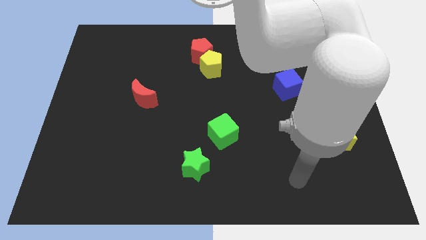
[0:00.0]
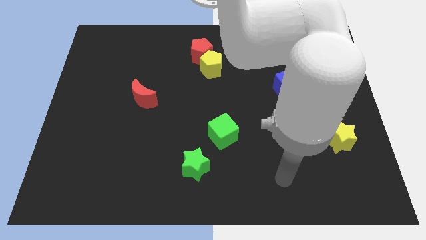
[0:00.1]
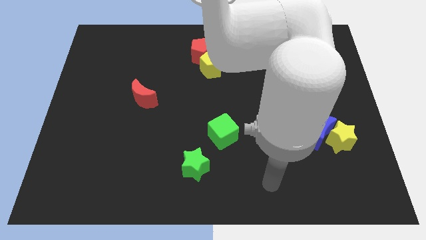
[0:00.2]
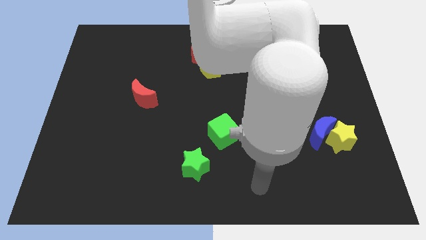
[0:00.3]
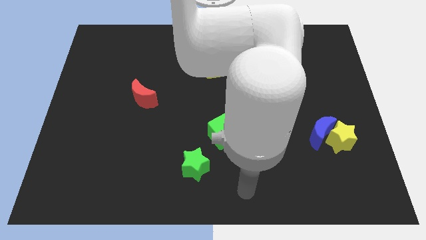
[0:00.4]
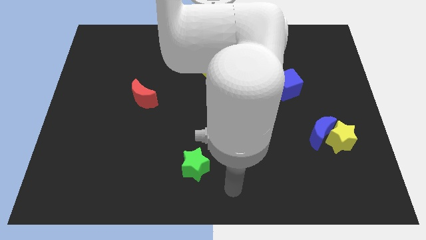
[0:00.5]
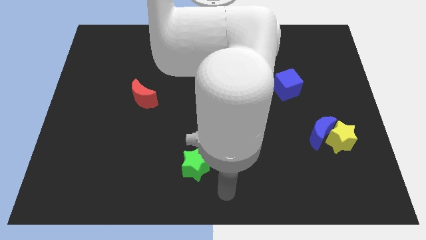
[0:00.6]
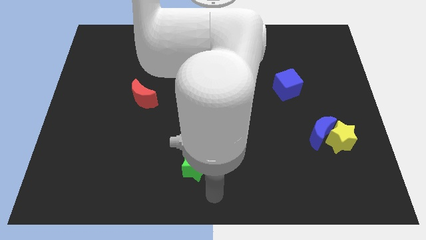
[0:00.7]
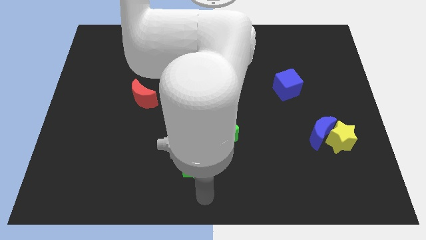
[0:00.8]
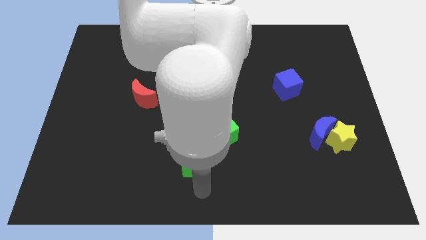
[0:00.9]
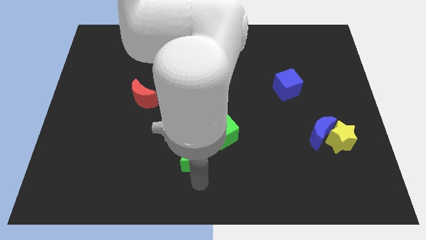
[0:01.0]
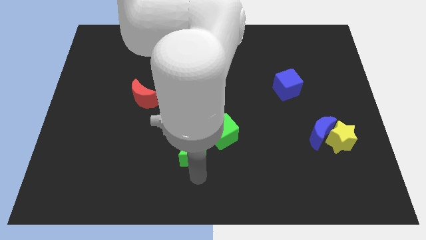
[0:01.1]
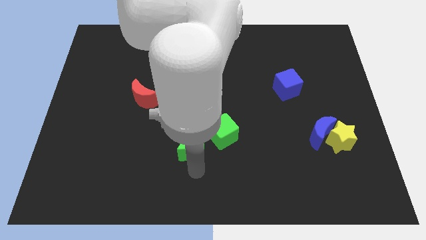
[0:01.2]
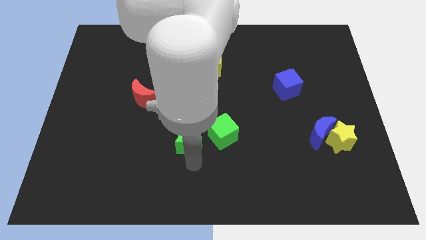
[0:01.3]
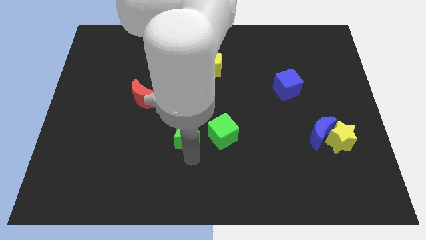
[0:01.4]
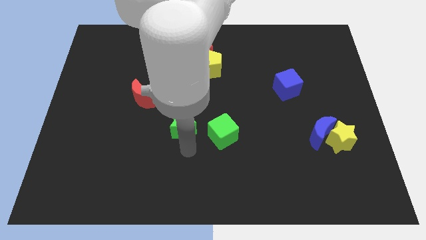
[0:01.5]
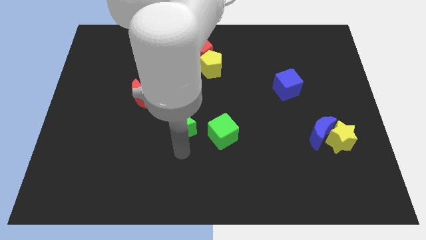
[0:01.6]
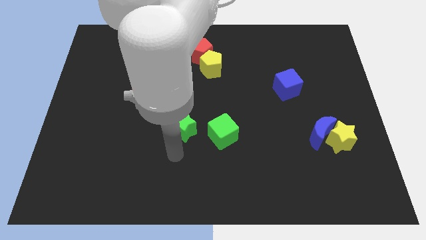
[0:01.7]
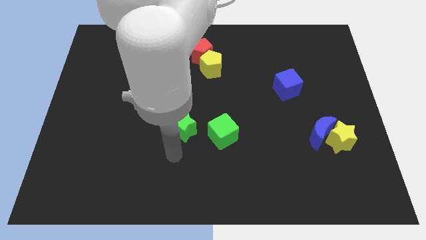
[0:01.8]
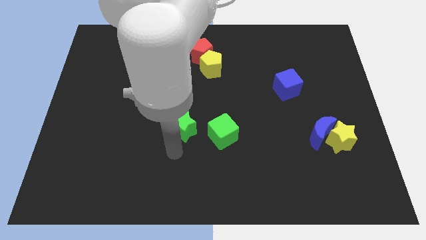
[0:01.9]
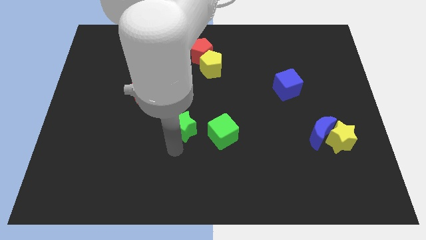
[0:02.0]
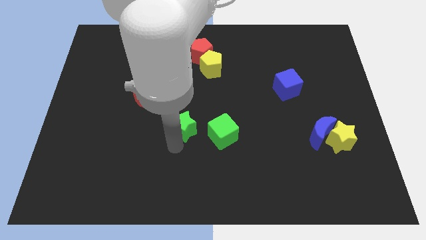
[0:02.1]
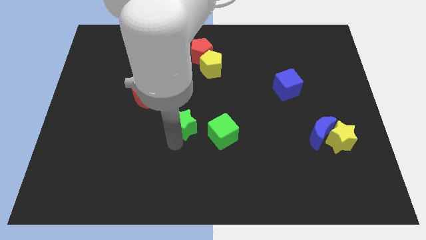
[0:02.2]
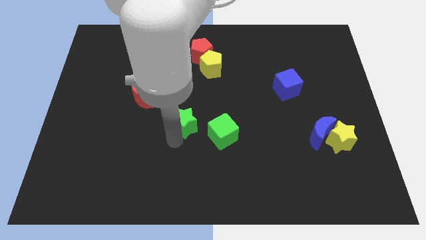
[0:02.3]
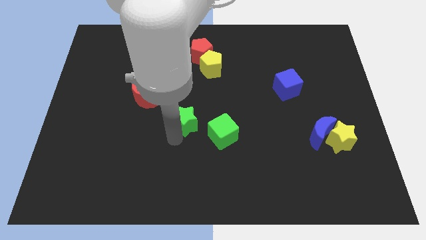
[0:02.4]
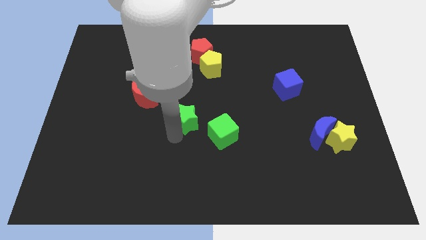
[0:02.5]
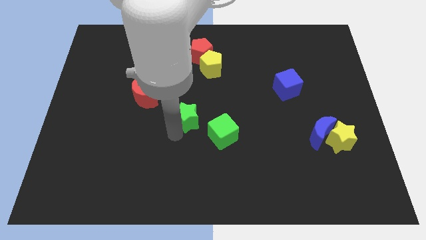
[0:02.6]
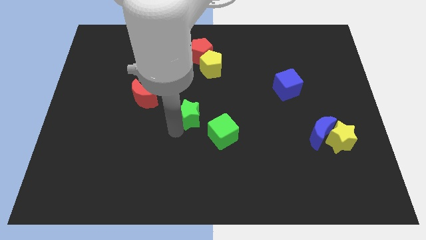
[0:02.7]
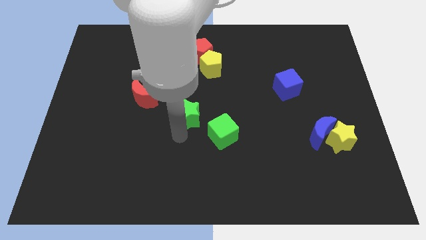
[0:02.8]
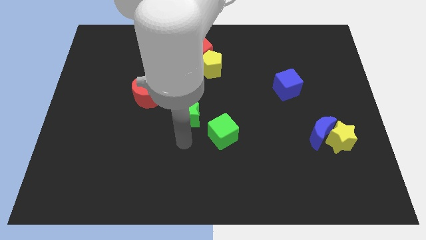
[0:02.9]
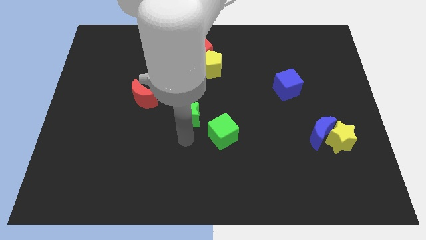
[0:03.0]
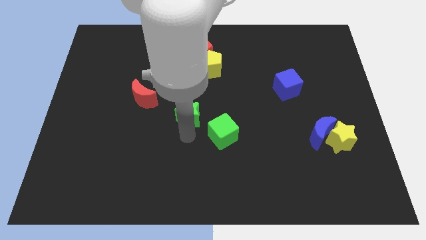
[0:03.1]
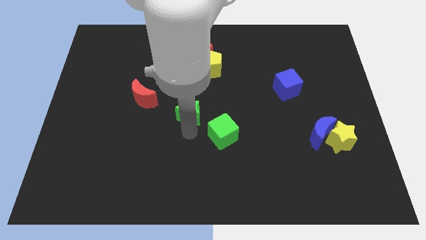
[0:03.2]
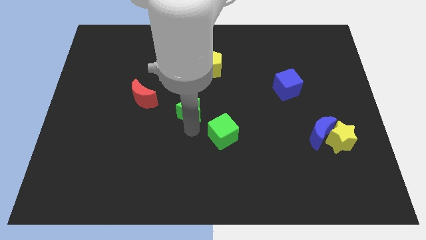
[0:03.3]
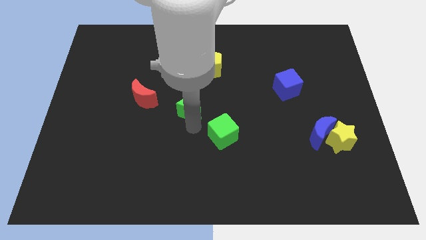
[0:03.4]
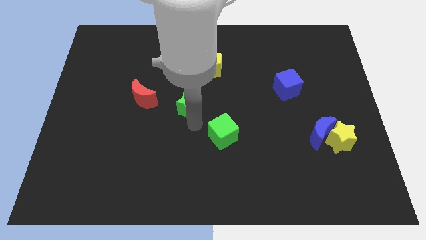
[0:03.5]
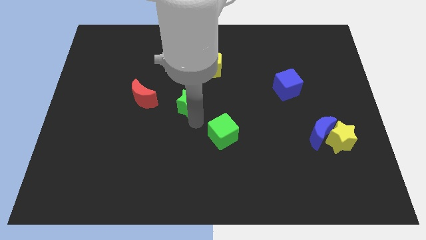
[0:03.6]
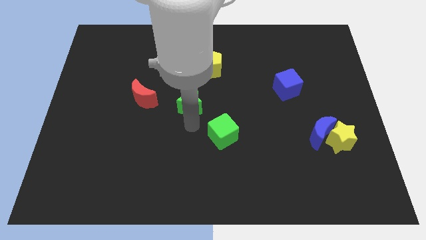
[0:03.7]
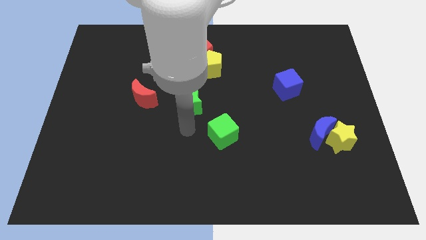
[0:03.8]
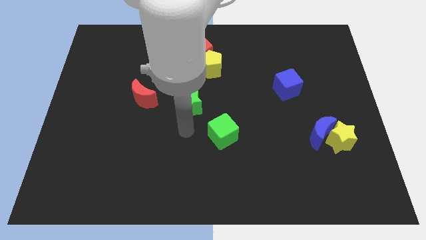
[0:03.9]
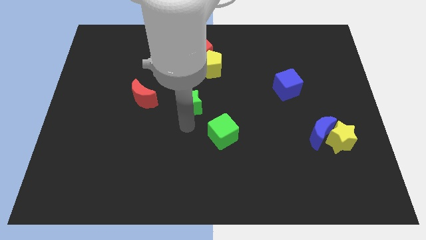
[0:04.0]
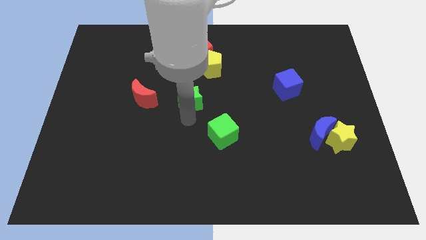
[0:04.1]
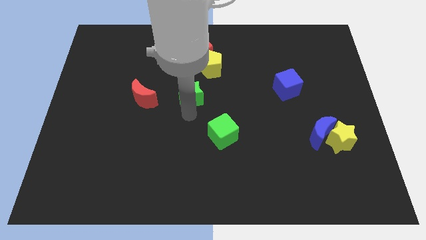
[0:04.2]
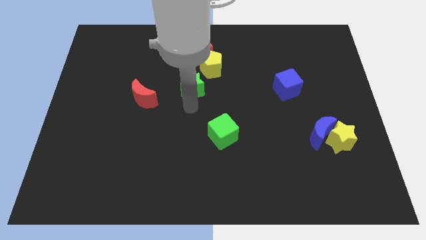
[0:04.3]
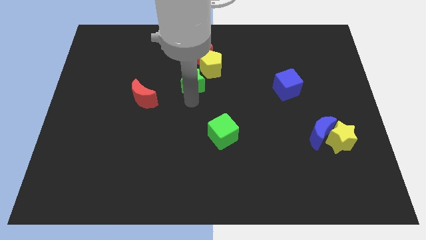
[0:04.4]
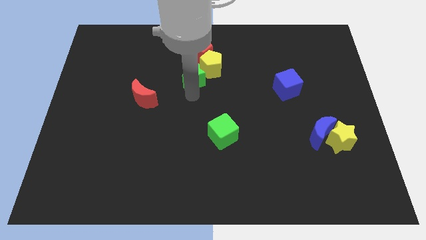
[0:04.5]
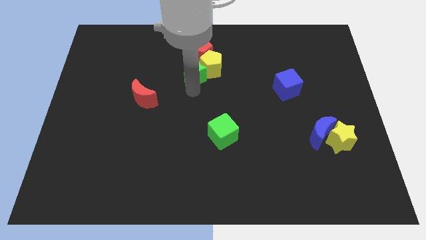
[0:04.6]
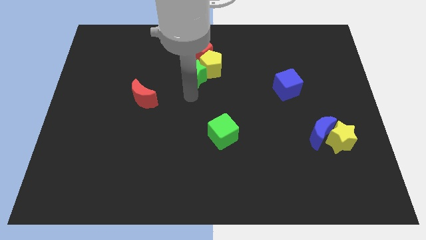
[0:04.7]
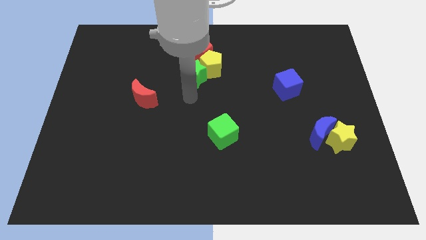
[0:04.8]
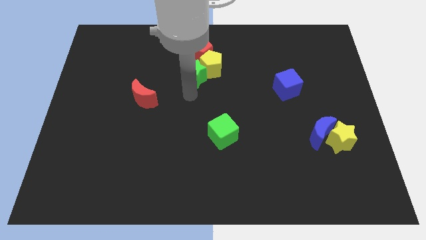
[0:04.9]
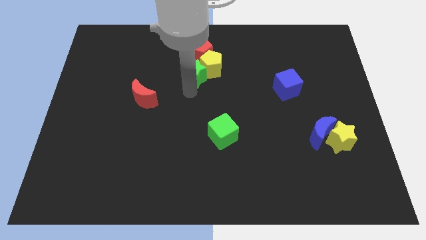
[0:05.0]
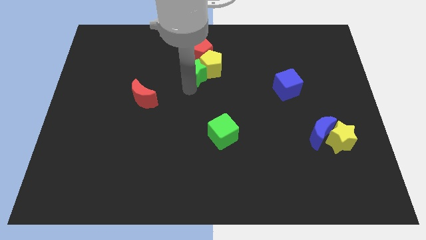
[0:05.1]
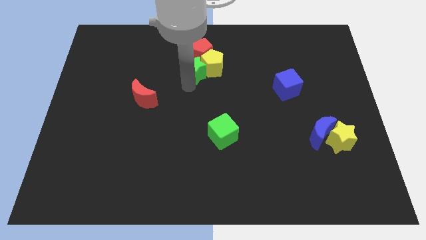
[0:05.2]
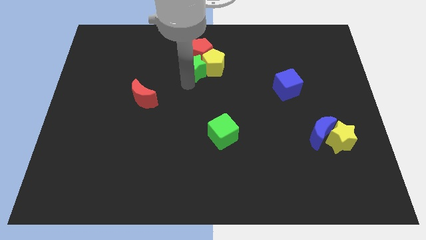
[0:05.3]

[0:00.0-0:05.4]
push the green star next to the red pentagon

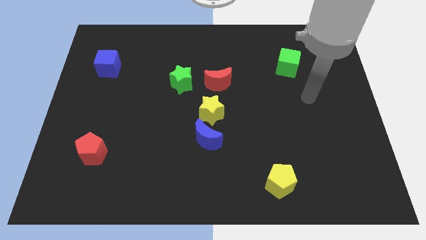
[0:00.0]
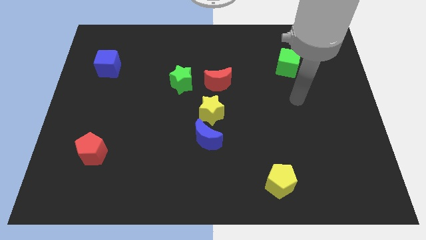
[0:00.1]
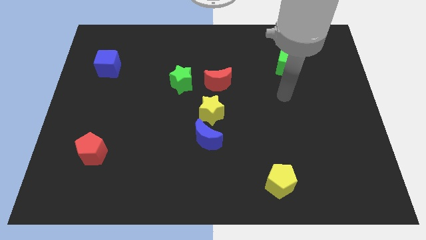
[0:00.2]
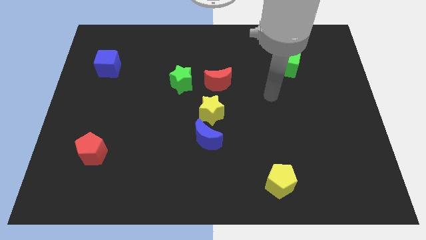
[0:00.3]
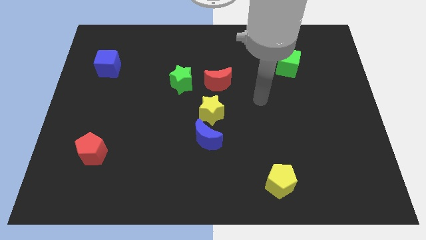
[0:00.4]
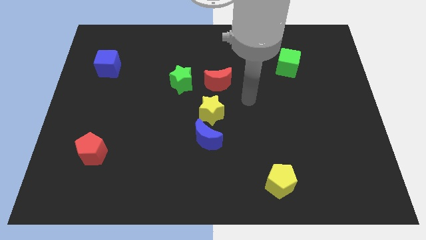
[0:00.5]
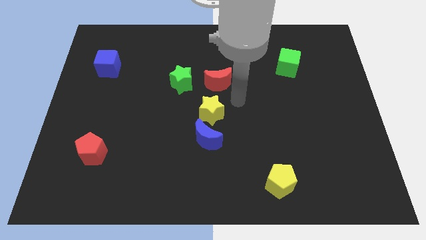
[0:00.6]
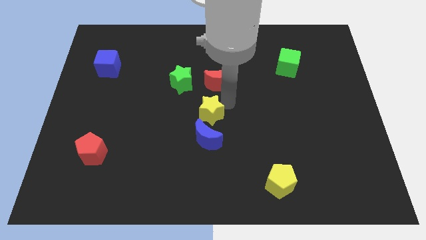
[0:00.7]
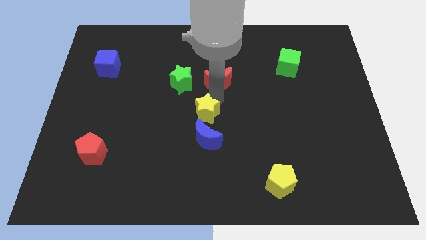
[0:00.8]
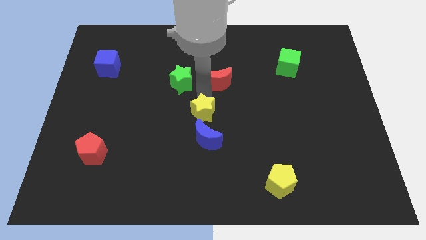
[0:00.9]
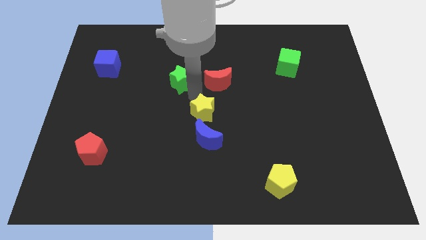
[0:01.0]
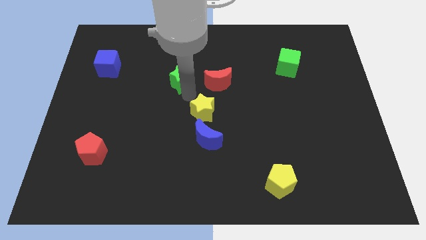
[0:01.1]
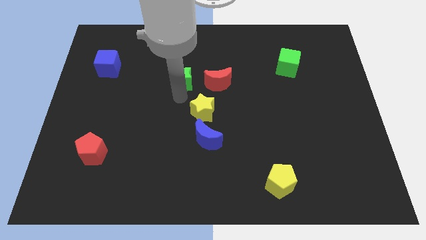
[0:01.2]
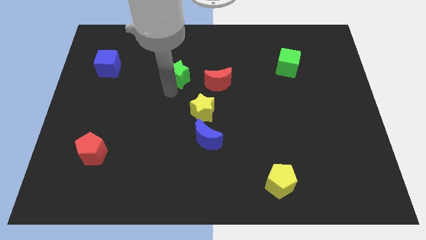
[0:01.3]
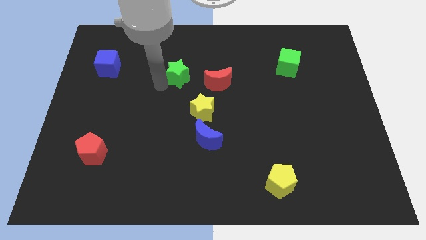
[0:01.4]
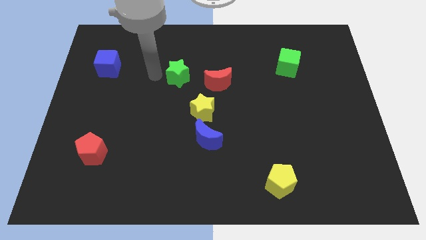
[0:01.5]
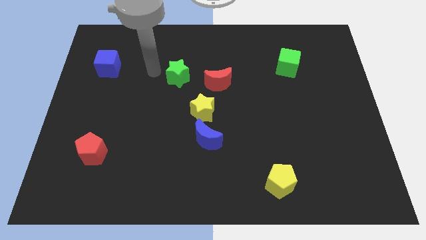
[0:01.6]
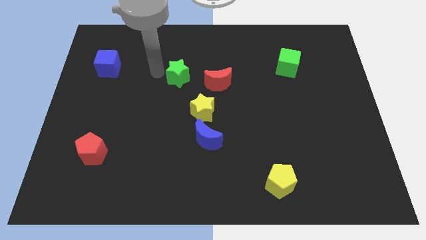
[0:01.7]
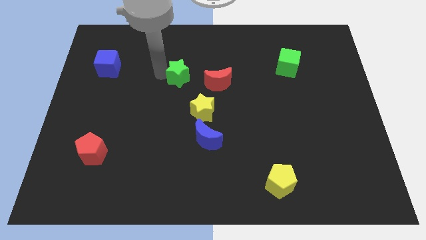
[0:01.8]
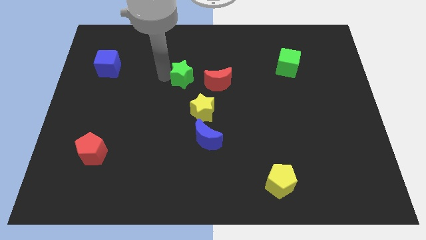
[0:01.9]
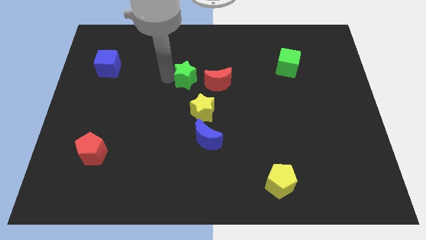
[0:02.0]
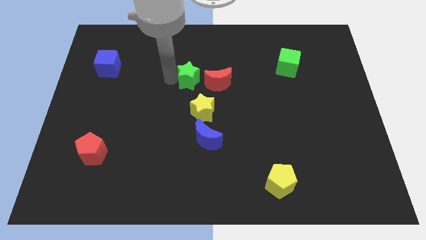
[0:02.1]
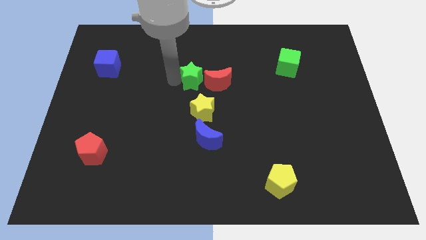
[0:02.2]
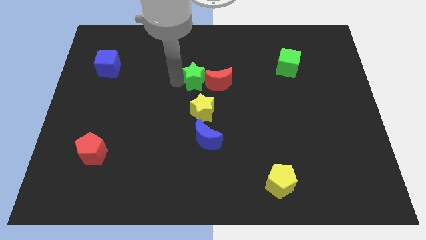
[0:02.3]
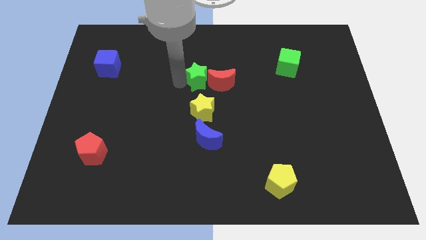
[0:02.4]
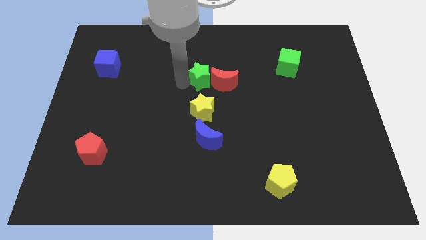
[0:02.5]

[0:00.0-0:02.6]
move the green star close to the red moon

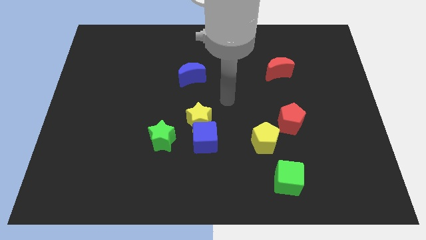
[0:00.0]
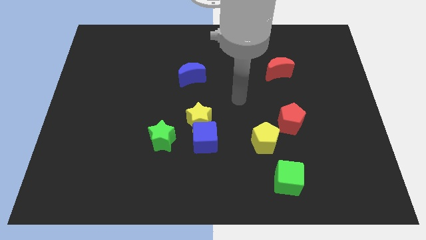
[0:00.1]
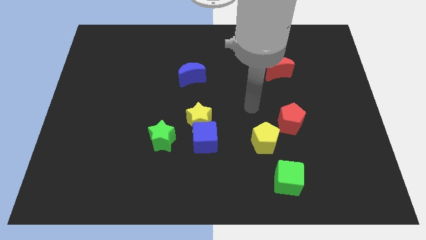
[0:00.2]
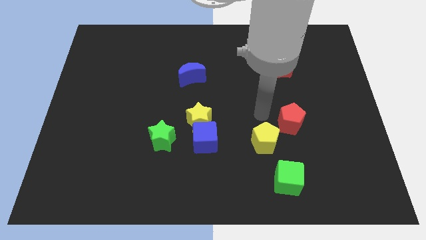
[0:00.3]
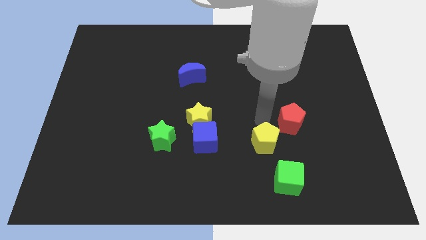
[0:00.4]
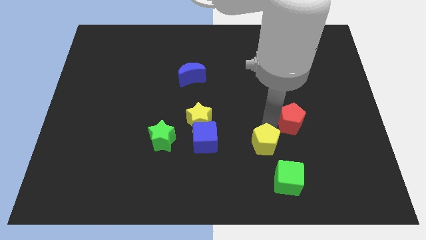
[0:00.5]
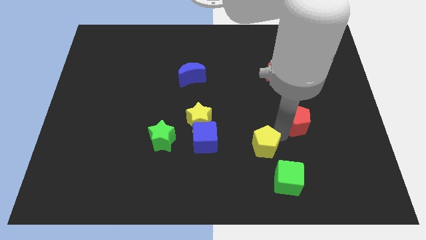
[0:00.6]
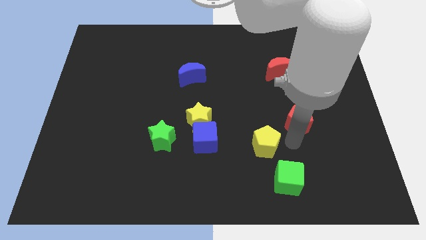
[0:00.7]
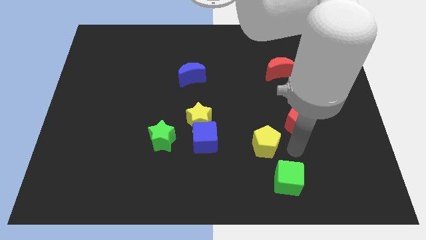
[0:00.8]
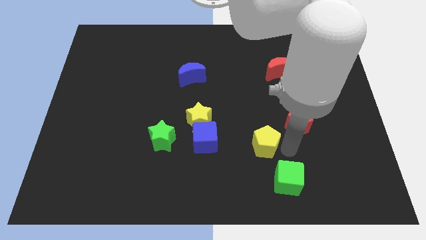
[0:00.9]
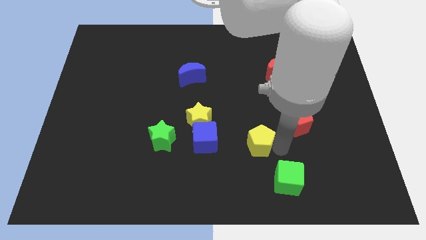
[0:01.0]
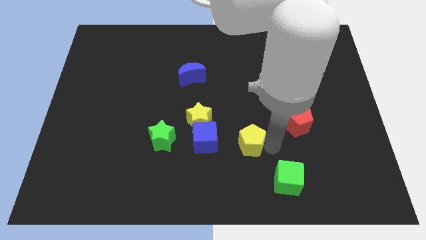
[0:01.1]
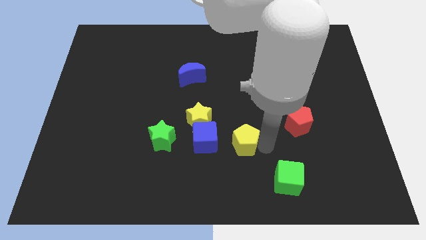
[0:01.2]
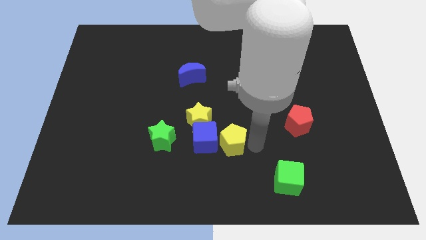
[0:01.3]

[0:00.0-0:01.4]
put the yellow pentagon close to the blue cube
